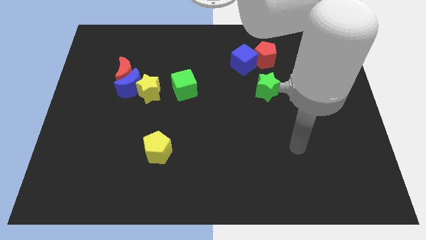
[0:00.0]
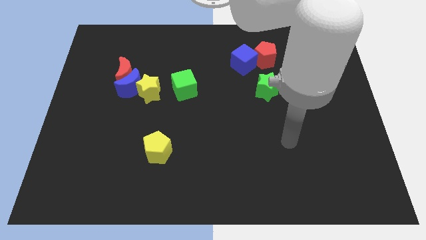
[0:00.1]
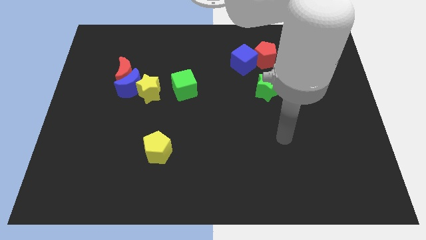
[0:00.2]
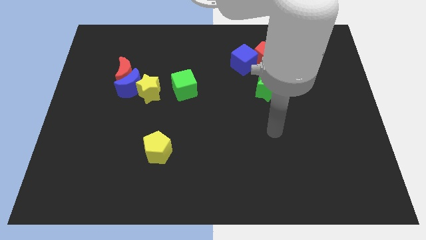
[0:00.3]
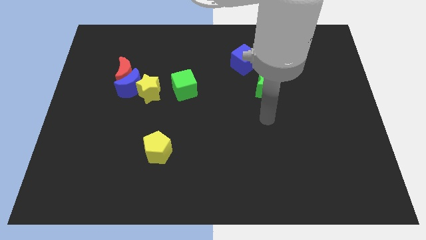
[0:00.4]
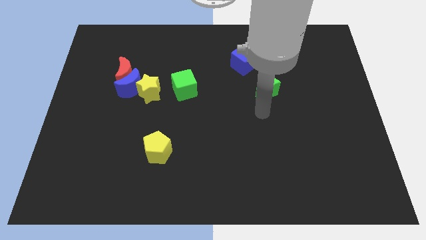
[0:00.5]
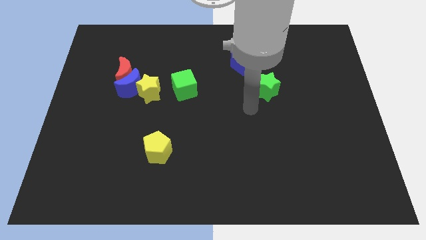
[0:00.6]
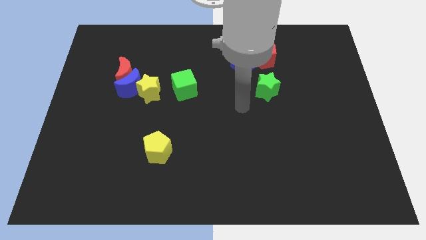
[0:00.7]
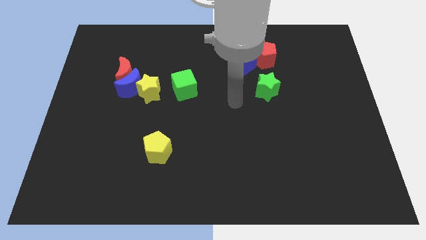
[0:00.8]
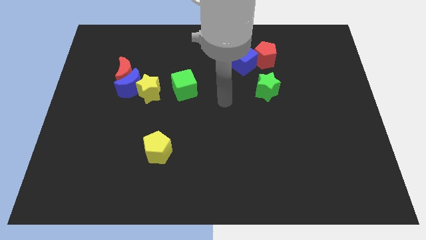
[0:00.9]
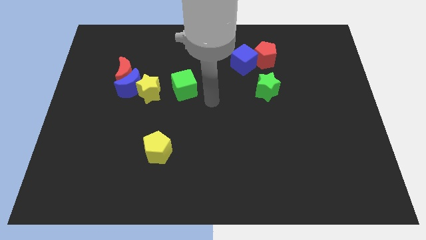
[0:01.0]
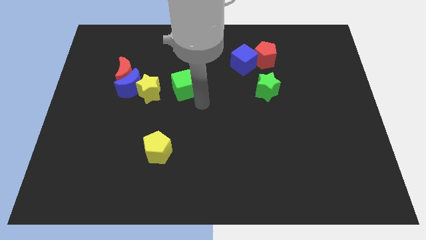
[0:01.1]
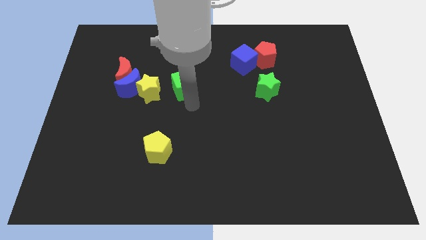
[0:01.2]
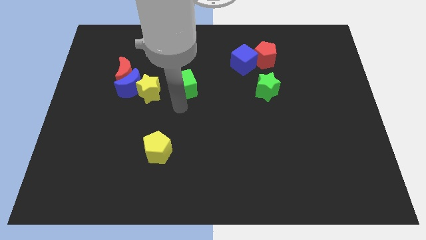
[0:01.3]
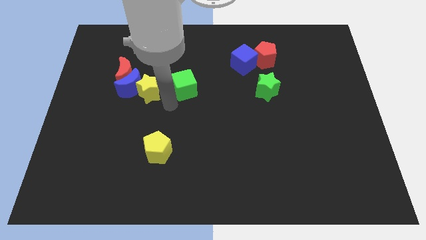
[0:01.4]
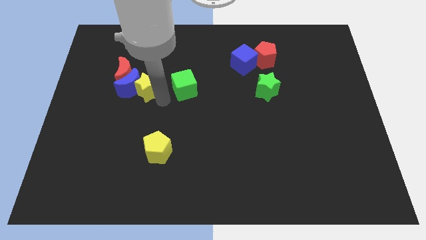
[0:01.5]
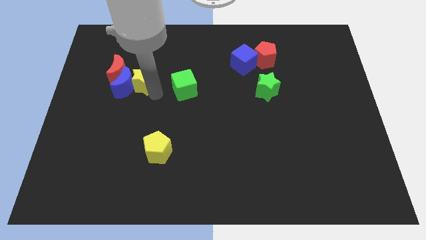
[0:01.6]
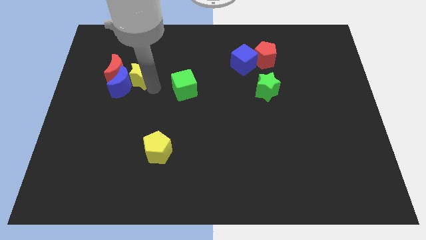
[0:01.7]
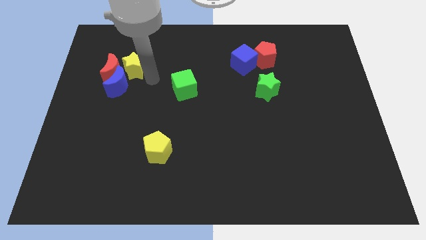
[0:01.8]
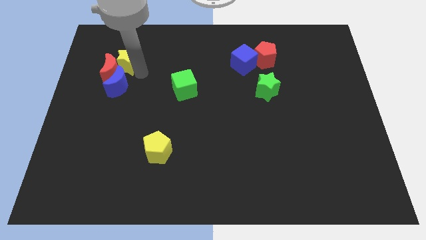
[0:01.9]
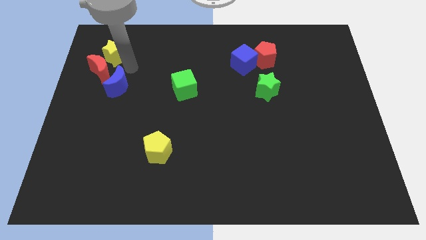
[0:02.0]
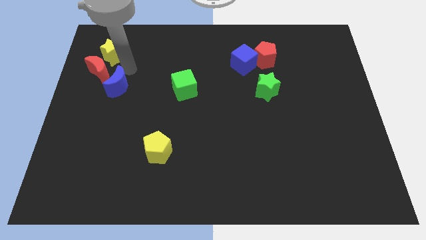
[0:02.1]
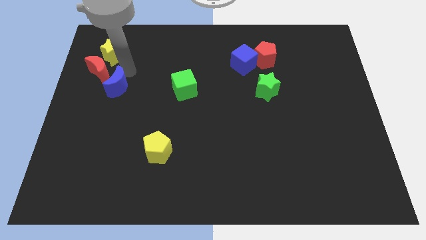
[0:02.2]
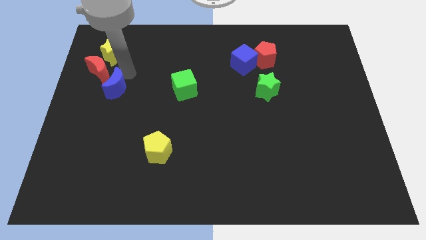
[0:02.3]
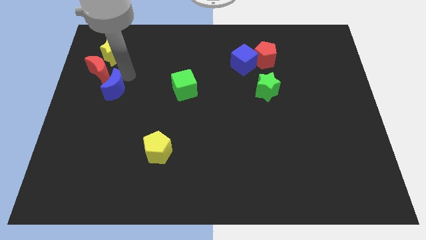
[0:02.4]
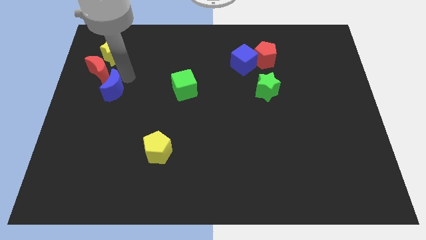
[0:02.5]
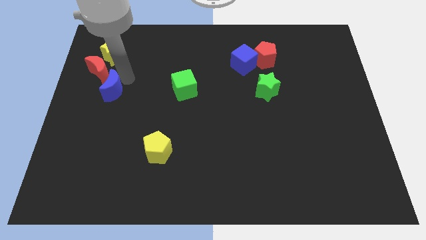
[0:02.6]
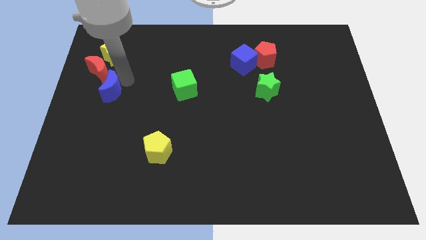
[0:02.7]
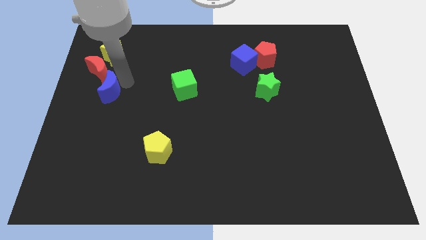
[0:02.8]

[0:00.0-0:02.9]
move the blue moon away from the red moon and yellow star

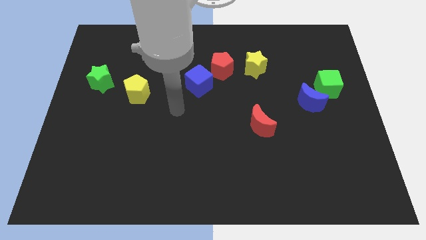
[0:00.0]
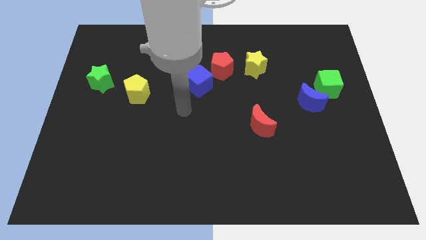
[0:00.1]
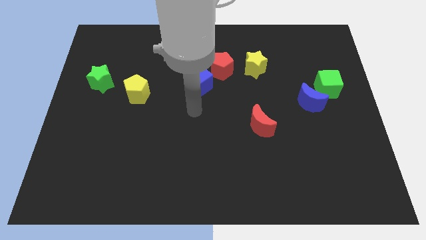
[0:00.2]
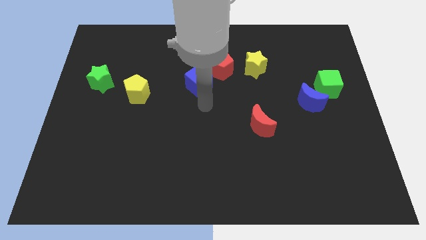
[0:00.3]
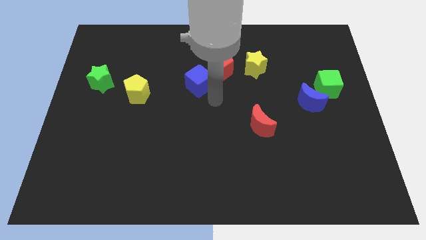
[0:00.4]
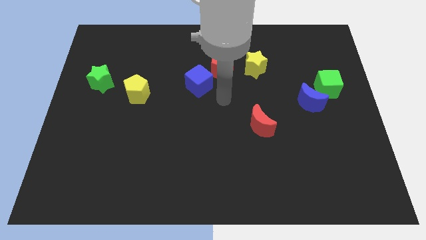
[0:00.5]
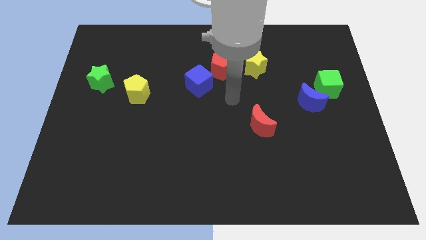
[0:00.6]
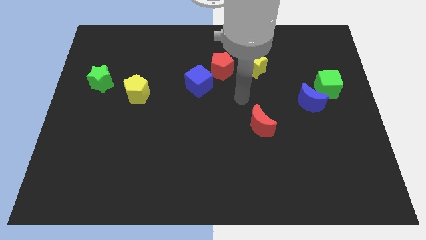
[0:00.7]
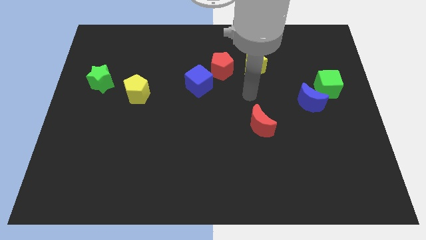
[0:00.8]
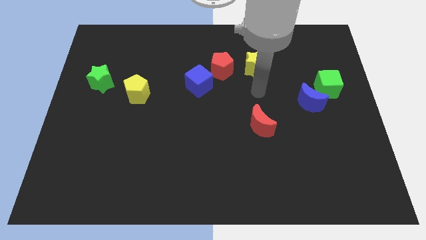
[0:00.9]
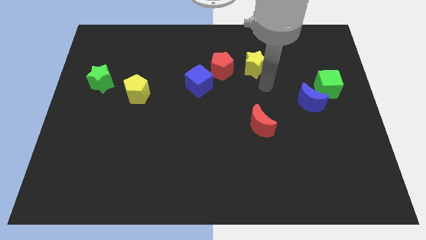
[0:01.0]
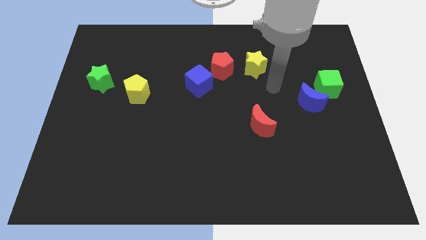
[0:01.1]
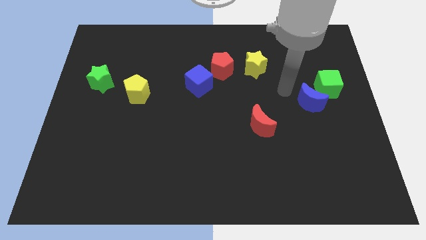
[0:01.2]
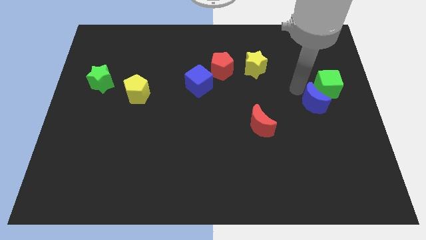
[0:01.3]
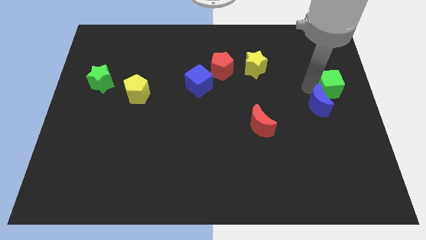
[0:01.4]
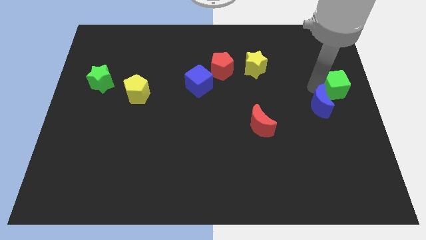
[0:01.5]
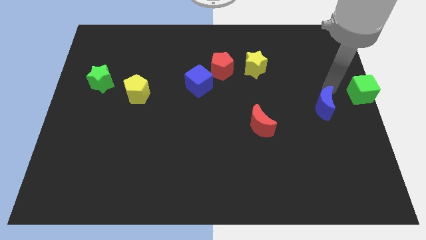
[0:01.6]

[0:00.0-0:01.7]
pull the blue moon apart from the green cube

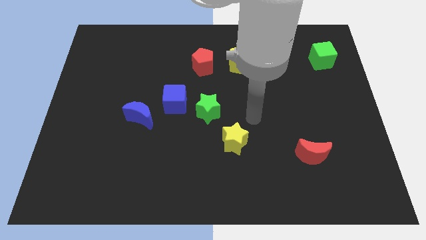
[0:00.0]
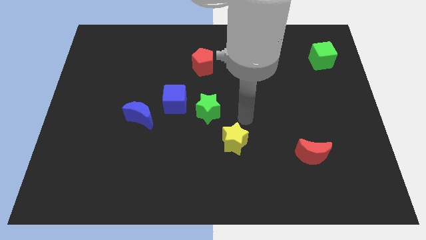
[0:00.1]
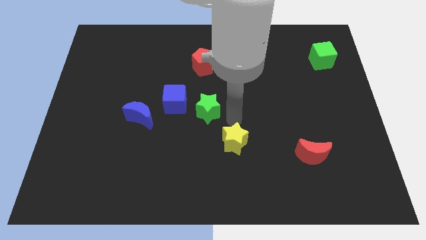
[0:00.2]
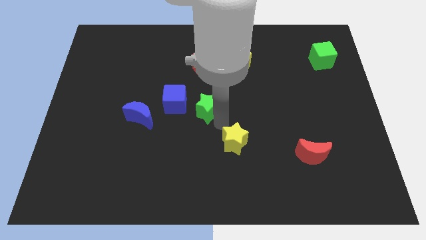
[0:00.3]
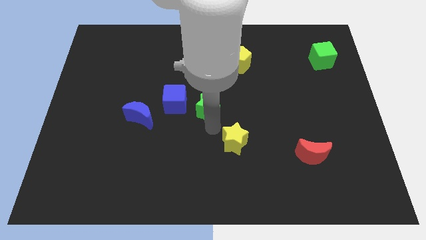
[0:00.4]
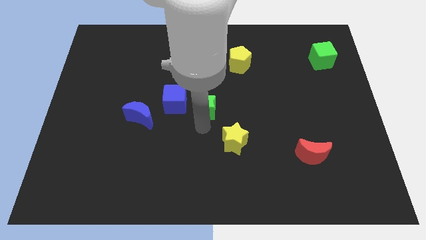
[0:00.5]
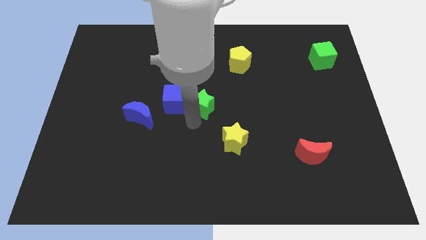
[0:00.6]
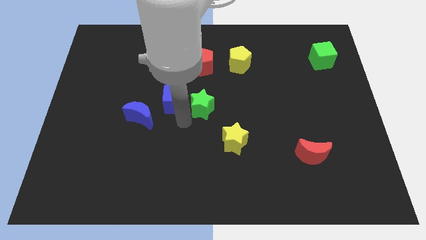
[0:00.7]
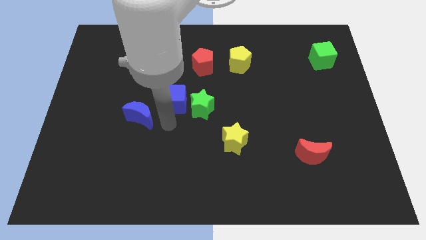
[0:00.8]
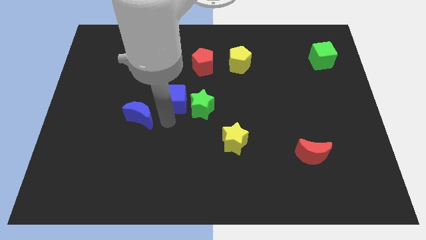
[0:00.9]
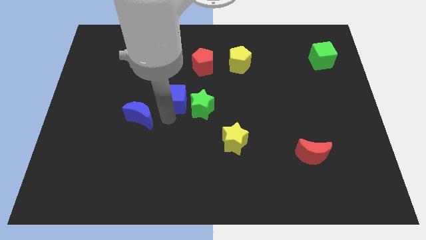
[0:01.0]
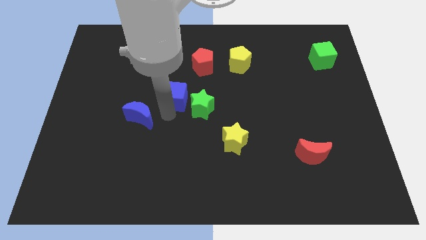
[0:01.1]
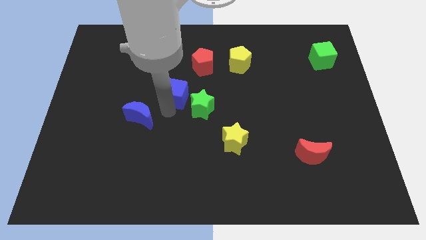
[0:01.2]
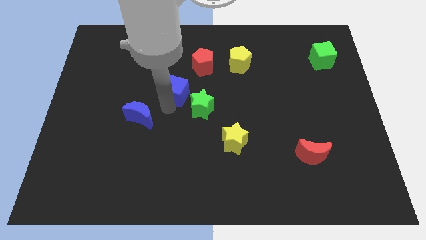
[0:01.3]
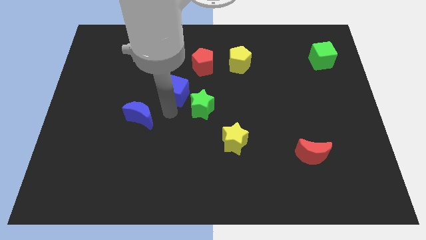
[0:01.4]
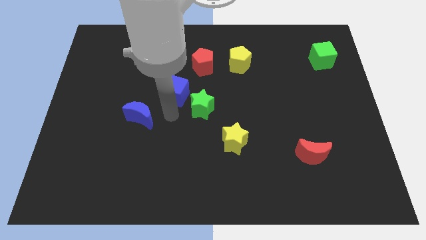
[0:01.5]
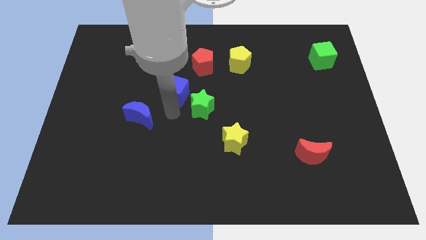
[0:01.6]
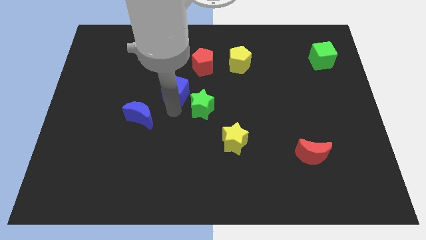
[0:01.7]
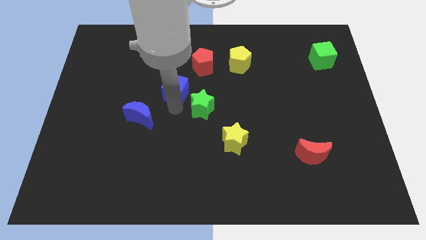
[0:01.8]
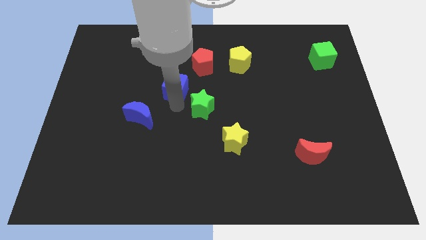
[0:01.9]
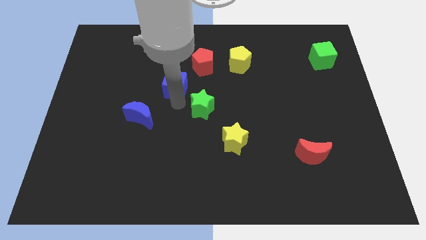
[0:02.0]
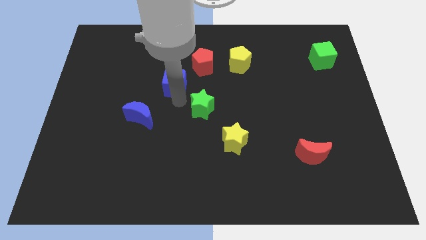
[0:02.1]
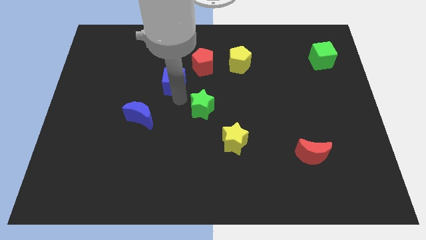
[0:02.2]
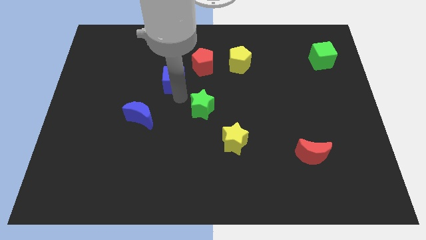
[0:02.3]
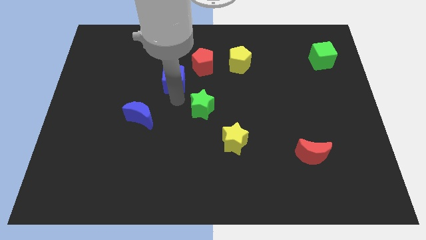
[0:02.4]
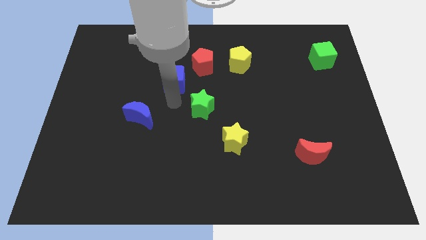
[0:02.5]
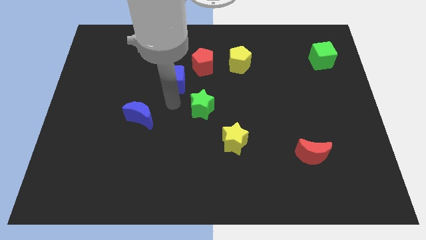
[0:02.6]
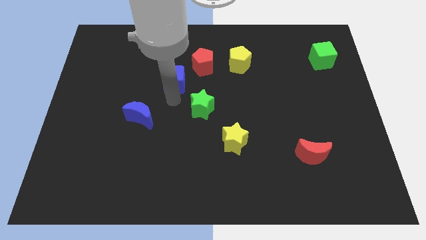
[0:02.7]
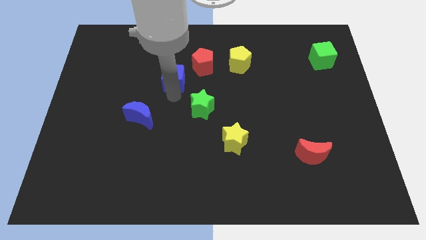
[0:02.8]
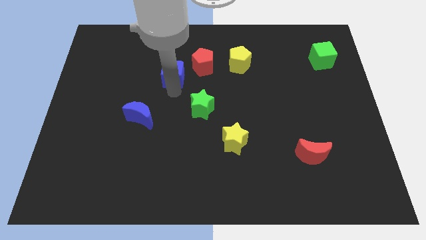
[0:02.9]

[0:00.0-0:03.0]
move the blue cube away from the green star and blue moon

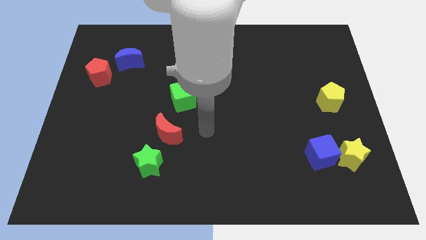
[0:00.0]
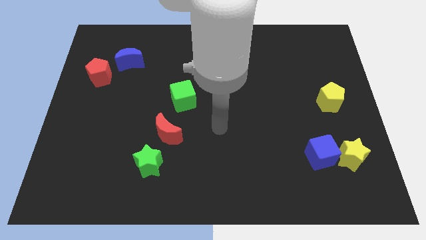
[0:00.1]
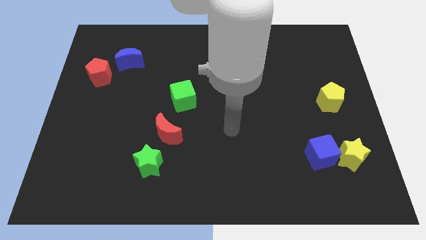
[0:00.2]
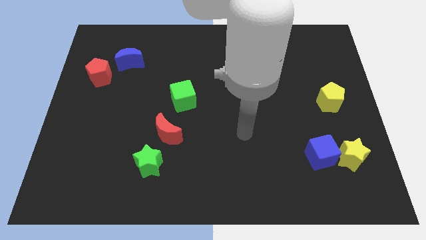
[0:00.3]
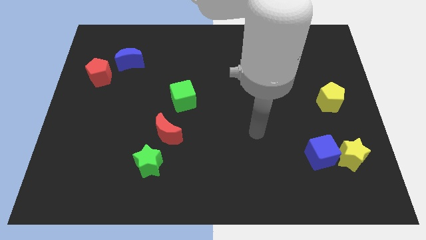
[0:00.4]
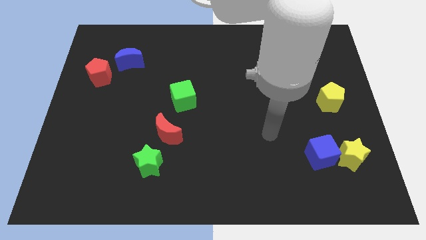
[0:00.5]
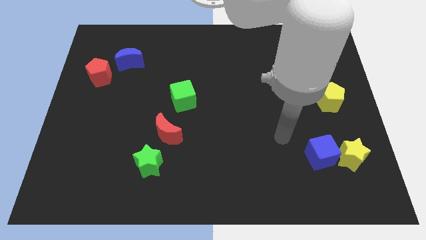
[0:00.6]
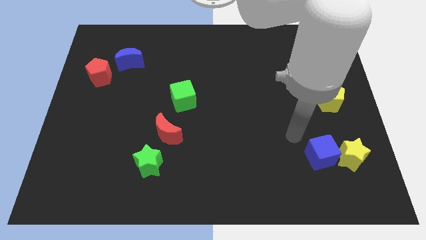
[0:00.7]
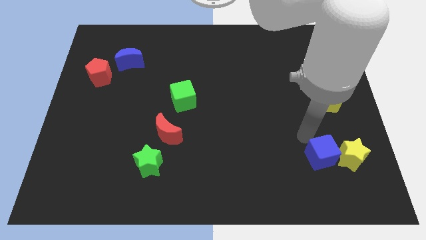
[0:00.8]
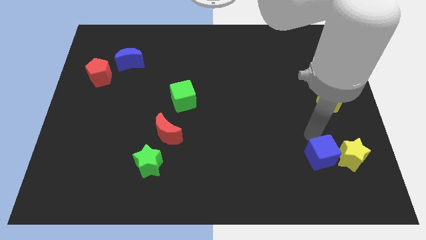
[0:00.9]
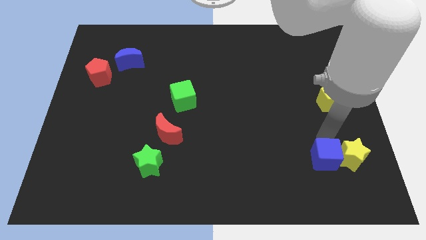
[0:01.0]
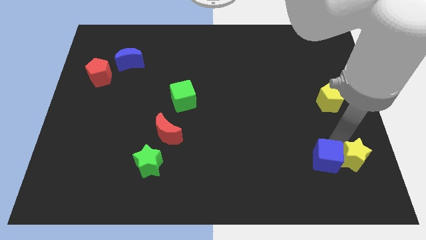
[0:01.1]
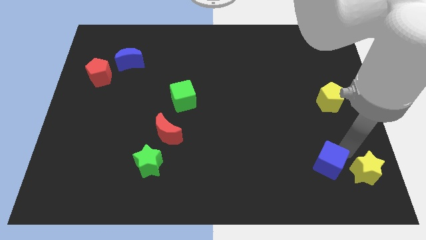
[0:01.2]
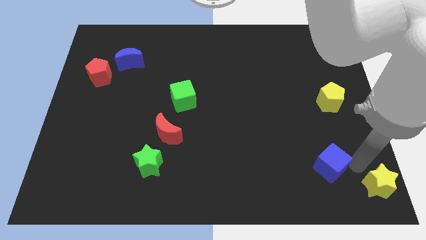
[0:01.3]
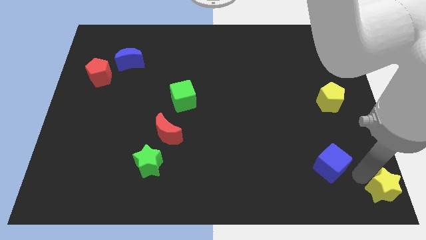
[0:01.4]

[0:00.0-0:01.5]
separate the blue cube from the yellow star

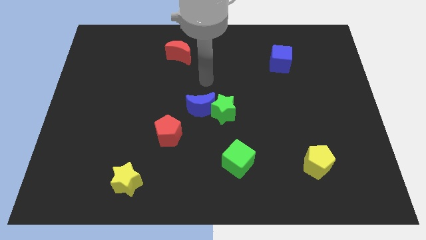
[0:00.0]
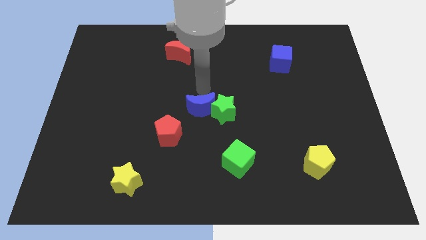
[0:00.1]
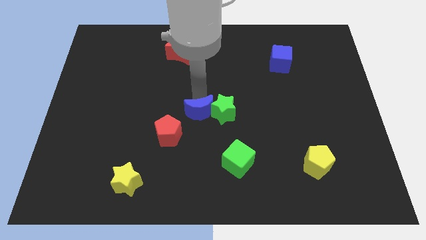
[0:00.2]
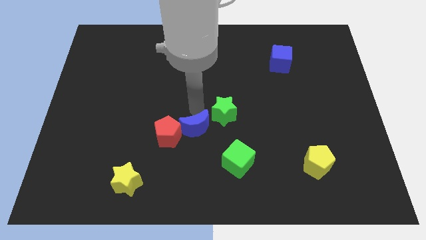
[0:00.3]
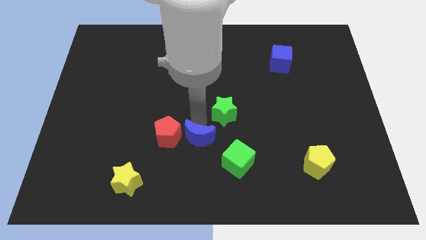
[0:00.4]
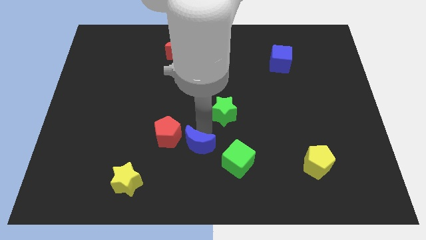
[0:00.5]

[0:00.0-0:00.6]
move the green star away from the blue moon
